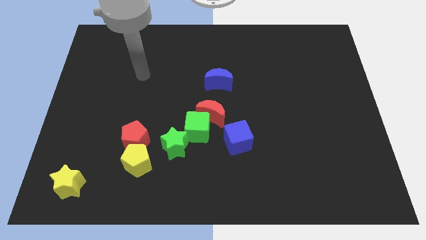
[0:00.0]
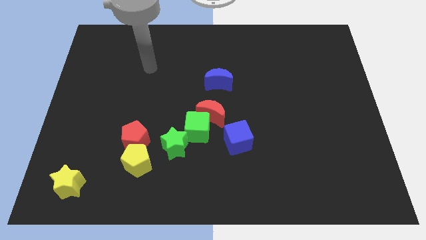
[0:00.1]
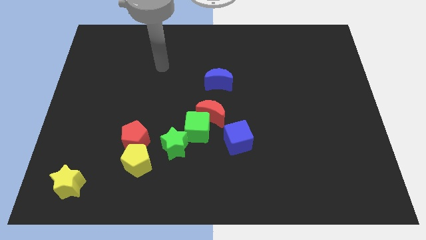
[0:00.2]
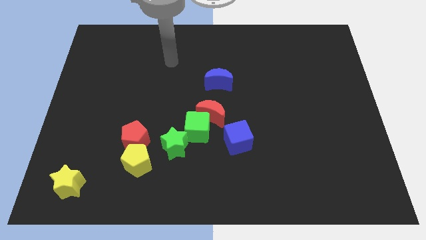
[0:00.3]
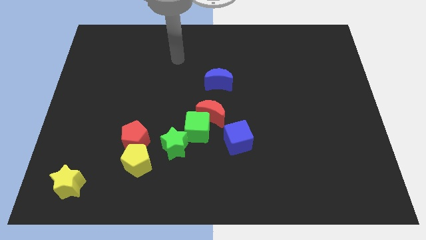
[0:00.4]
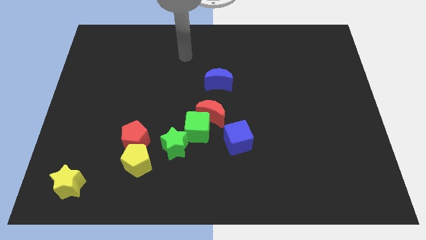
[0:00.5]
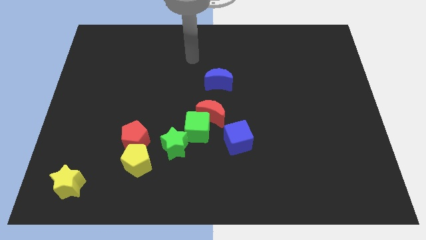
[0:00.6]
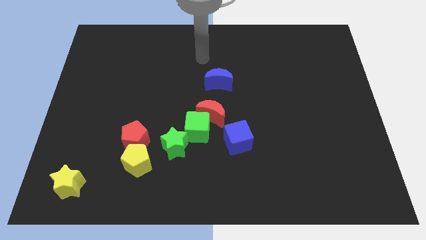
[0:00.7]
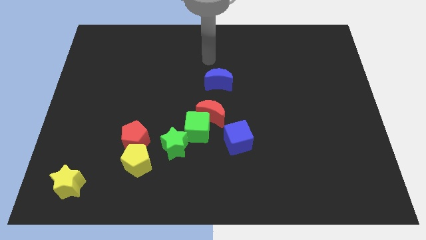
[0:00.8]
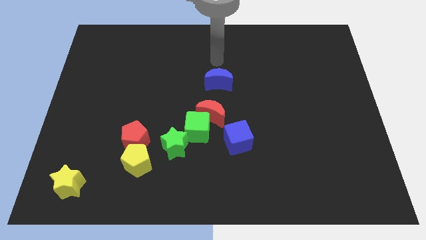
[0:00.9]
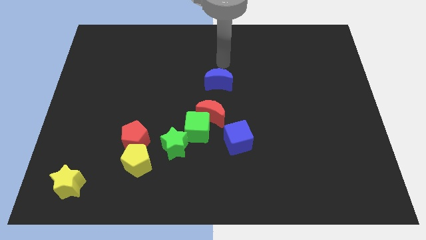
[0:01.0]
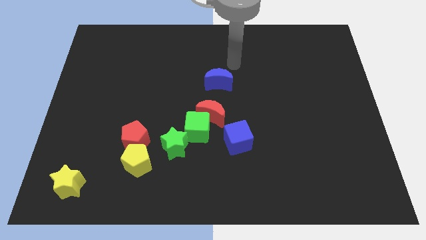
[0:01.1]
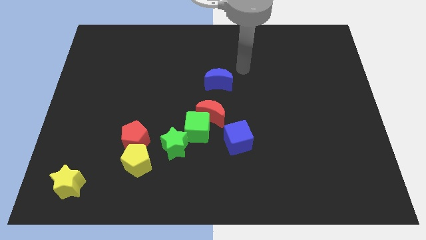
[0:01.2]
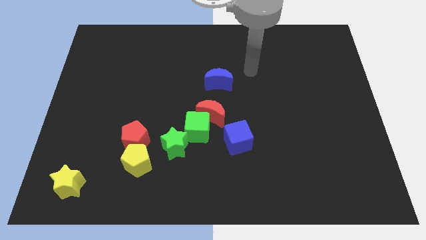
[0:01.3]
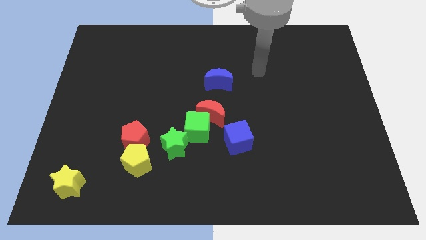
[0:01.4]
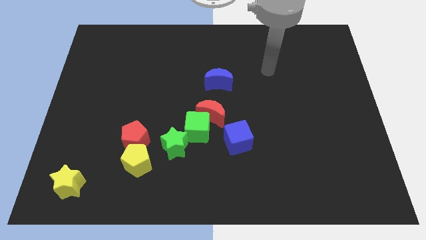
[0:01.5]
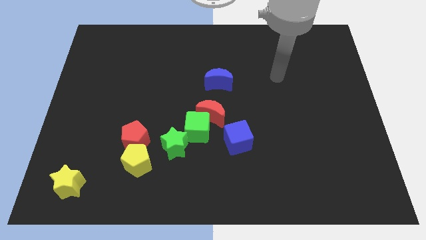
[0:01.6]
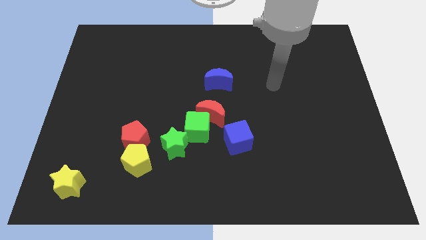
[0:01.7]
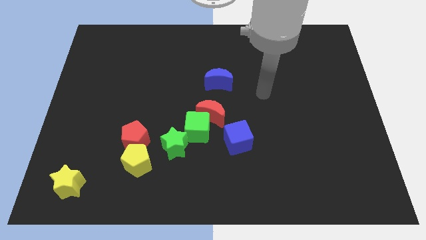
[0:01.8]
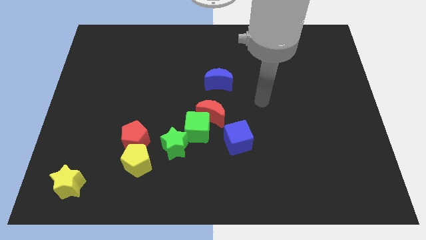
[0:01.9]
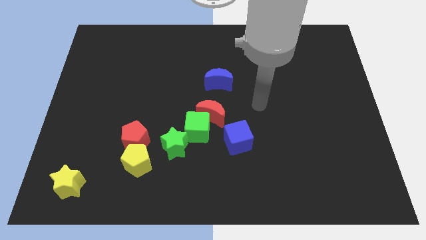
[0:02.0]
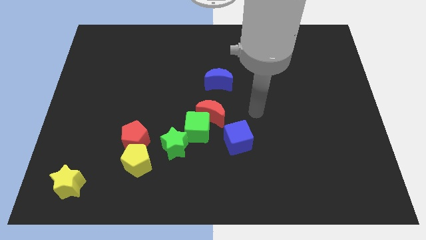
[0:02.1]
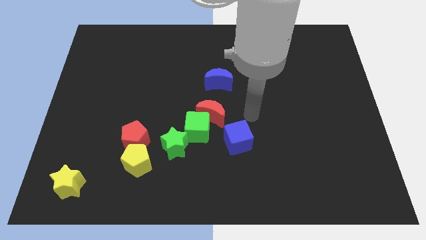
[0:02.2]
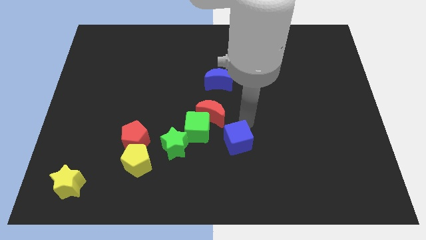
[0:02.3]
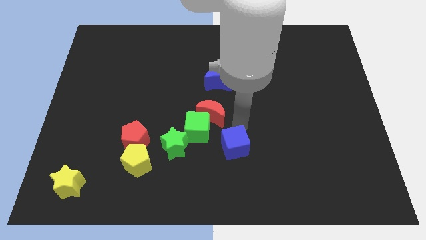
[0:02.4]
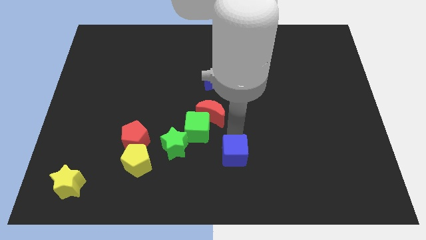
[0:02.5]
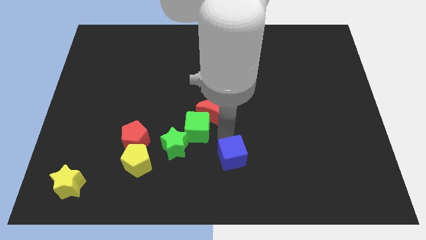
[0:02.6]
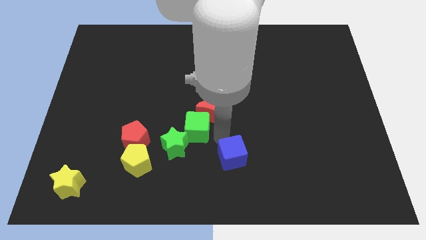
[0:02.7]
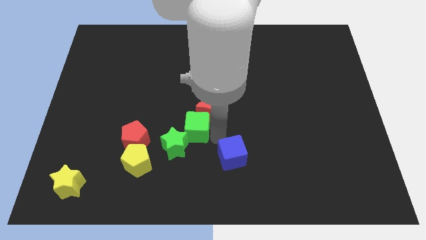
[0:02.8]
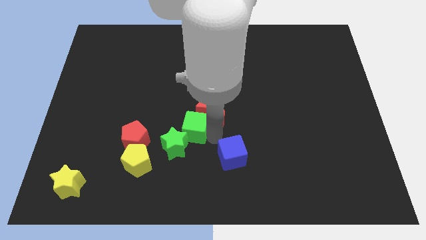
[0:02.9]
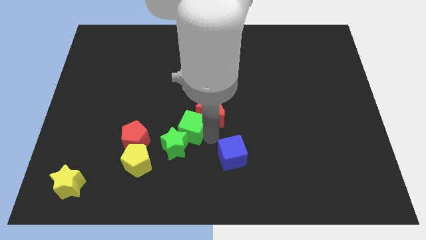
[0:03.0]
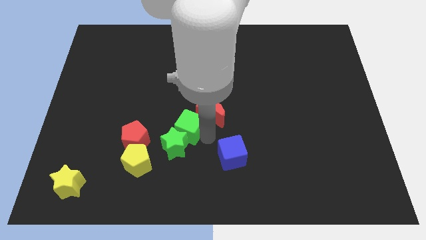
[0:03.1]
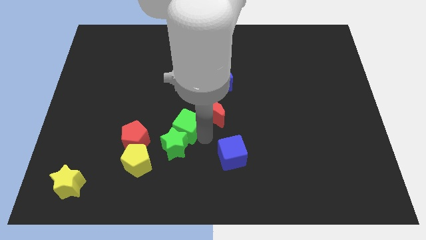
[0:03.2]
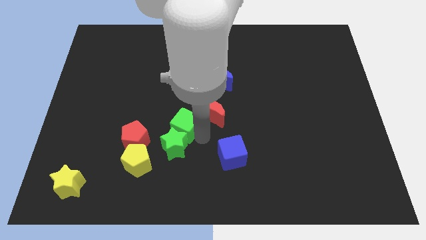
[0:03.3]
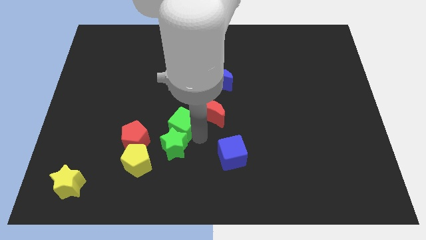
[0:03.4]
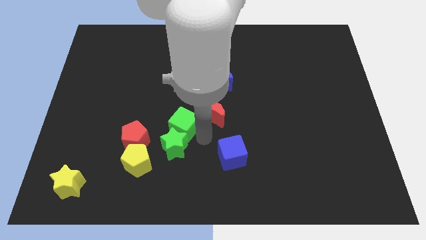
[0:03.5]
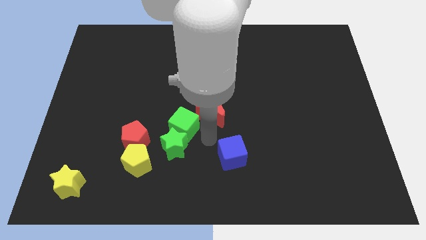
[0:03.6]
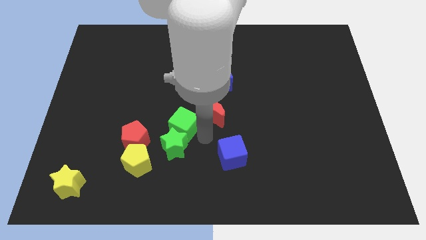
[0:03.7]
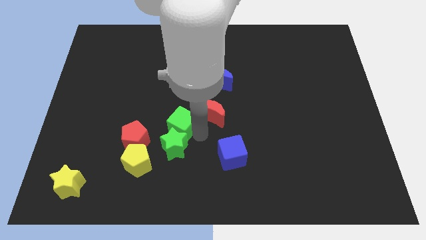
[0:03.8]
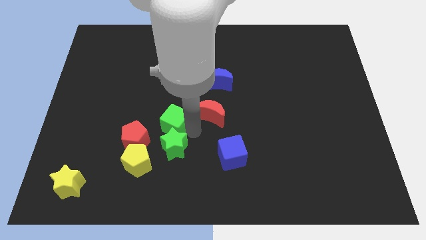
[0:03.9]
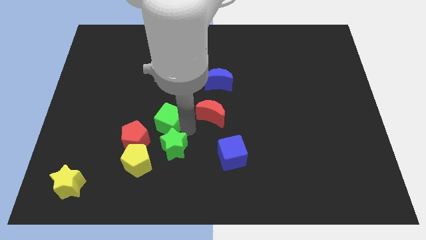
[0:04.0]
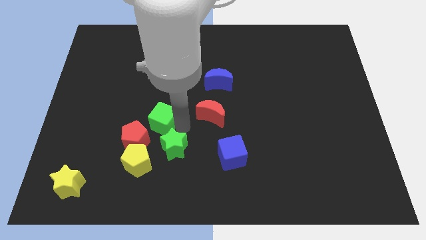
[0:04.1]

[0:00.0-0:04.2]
separate the green cube from the red moon, green star, and blue cube

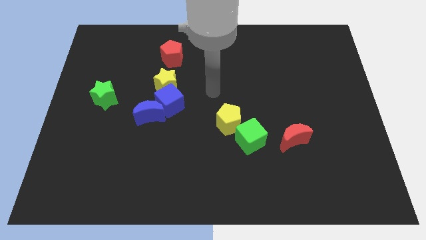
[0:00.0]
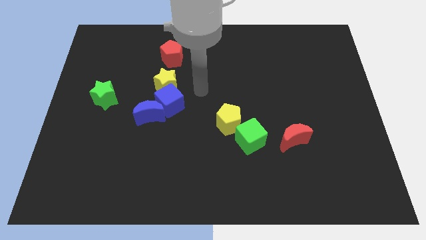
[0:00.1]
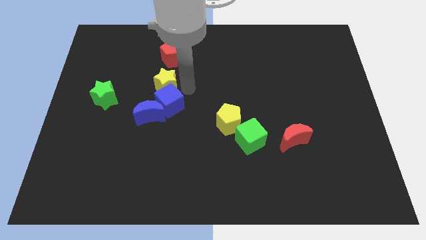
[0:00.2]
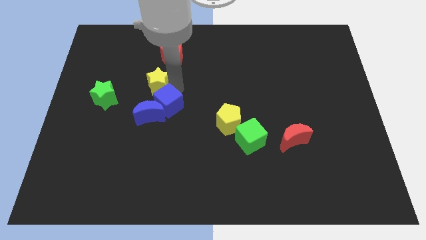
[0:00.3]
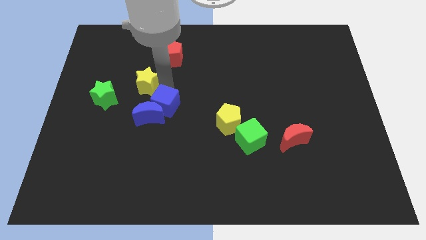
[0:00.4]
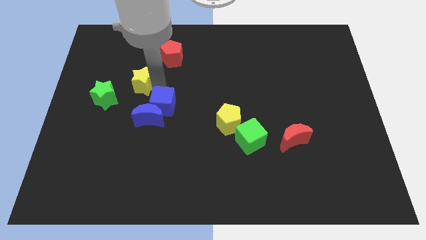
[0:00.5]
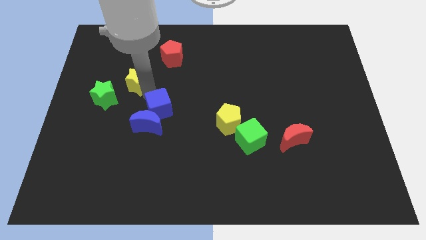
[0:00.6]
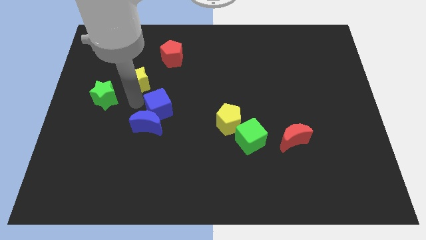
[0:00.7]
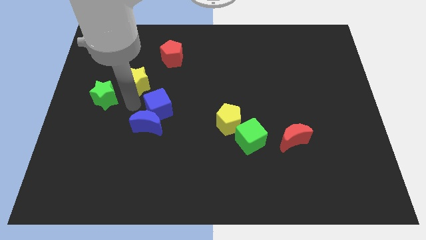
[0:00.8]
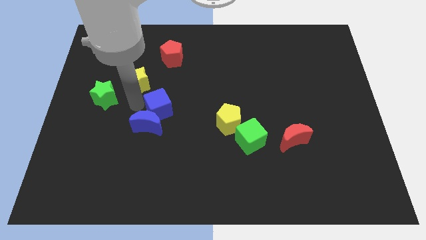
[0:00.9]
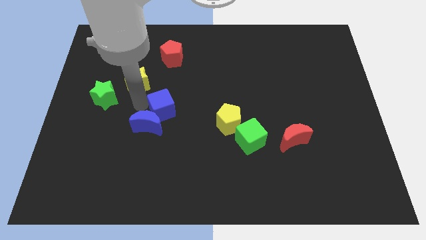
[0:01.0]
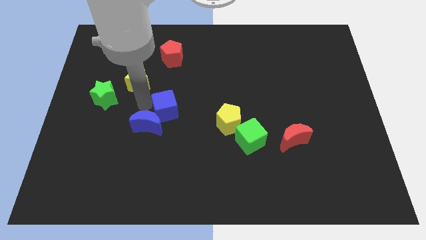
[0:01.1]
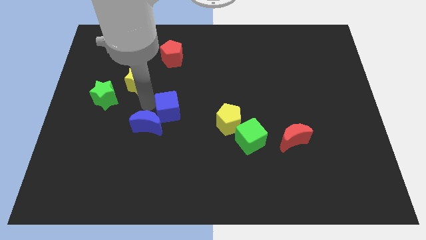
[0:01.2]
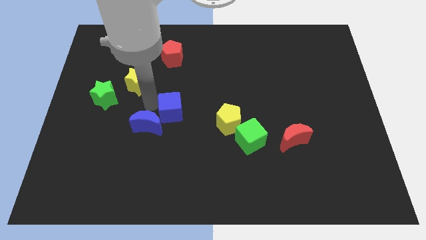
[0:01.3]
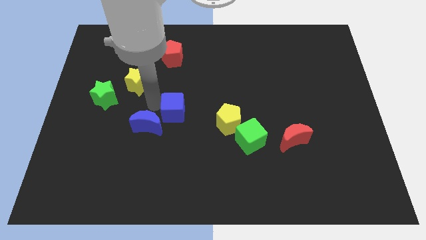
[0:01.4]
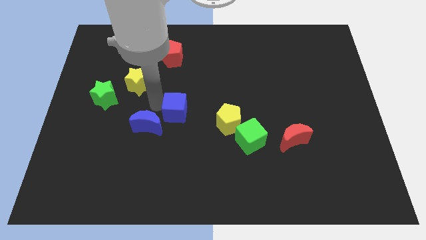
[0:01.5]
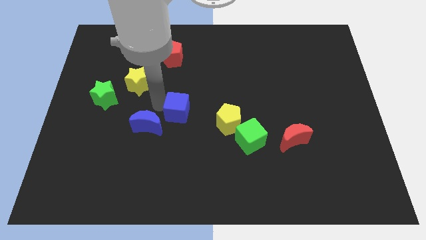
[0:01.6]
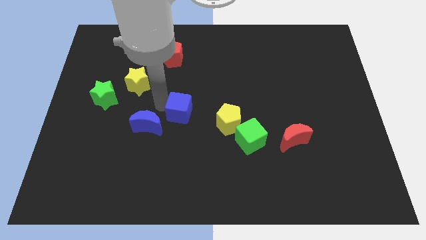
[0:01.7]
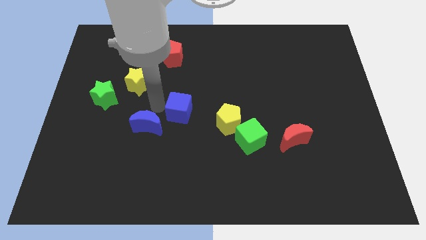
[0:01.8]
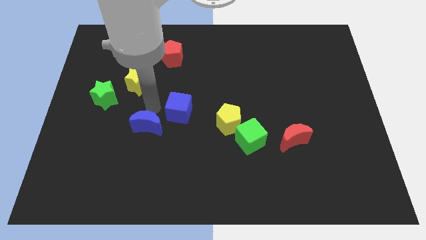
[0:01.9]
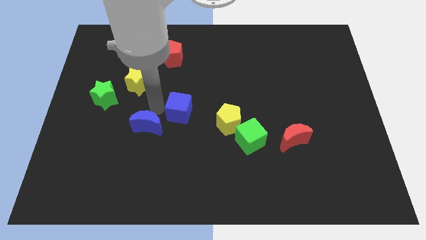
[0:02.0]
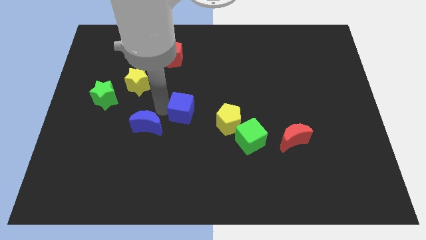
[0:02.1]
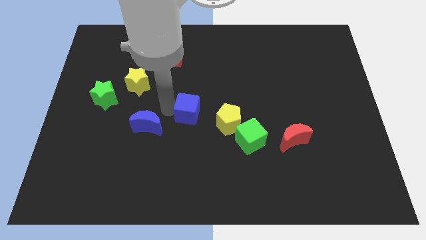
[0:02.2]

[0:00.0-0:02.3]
separate the blue cube from the blue moon and yellow star

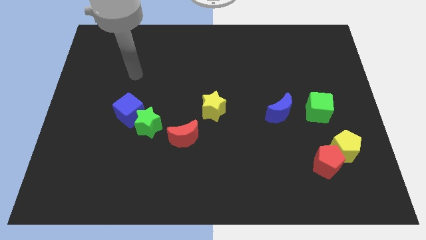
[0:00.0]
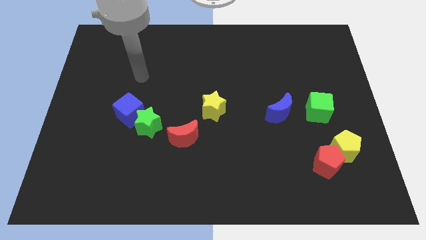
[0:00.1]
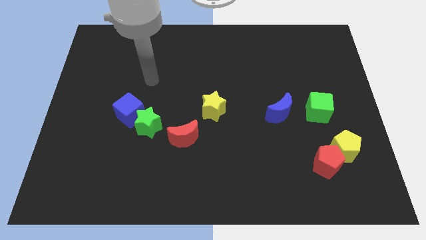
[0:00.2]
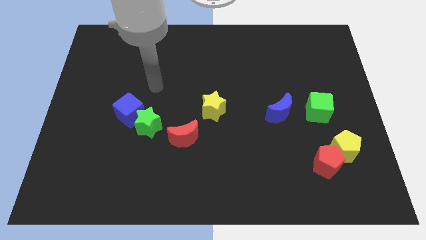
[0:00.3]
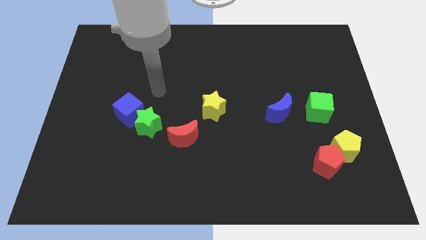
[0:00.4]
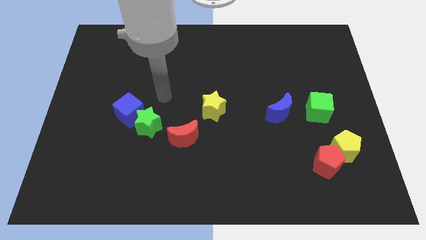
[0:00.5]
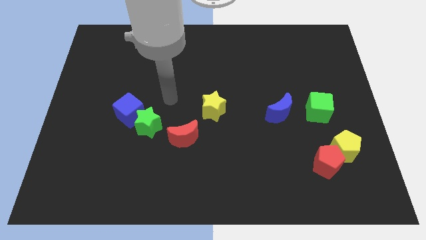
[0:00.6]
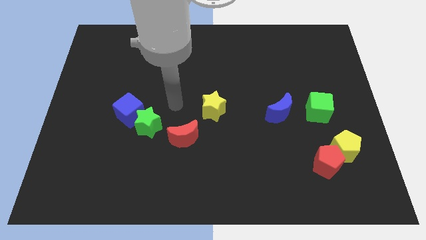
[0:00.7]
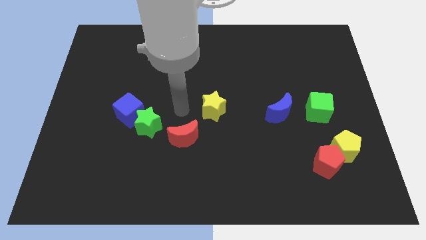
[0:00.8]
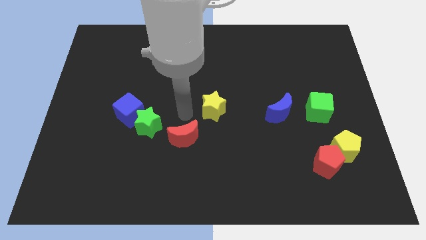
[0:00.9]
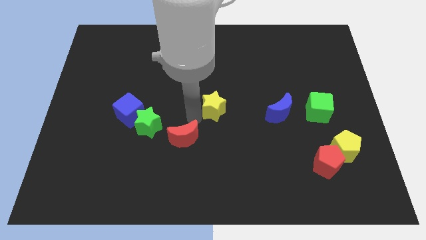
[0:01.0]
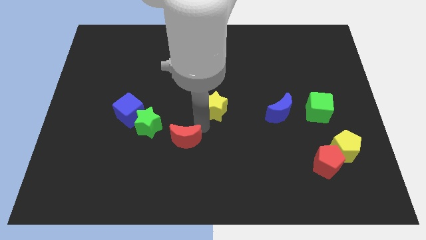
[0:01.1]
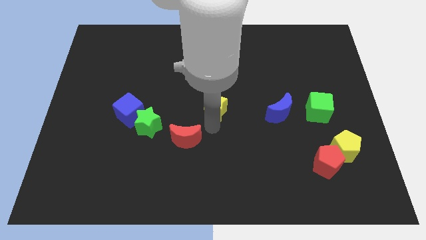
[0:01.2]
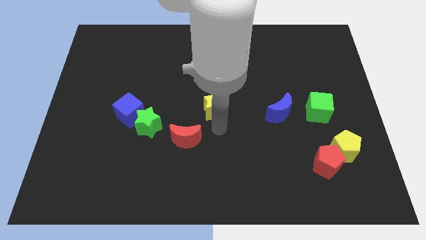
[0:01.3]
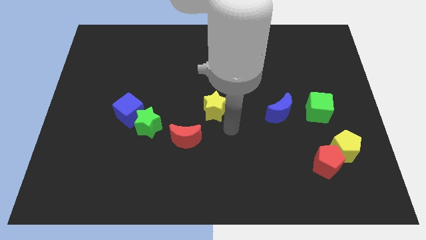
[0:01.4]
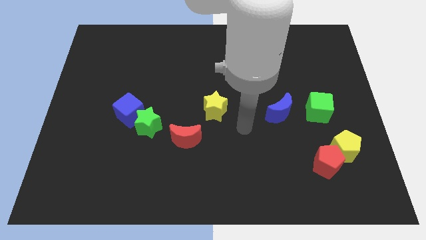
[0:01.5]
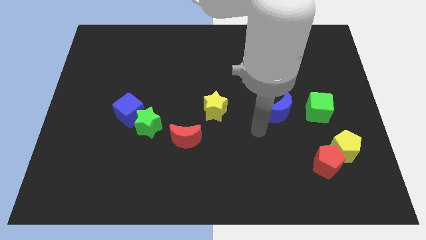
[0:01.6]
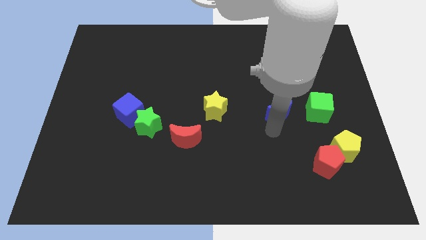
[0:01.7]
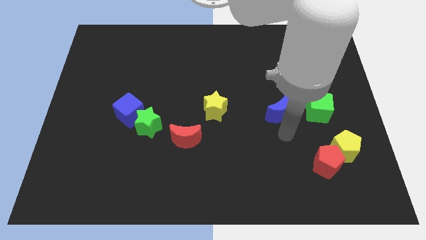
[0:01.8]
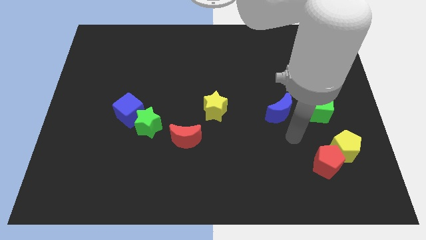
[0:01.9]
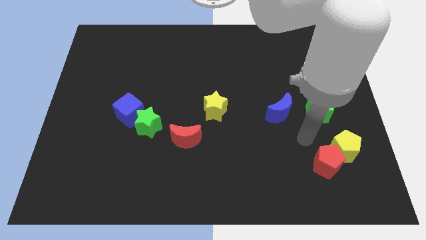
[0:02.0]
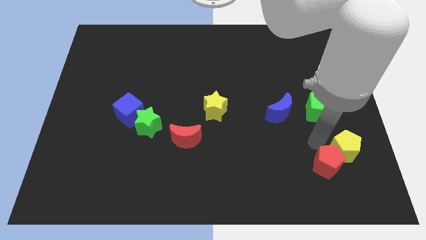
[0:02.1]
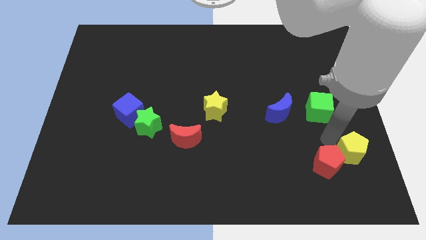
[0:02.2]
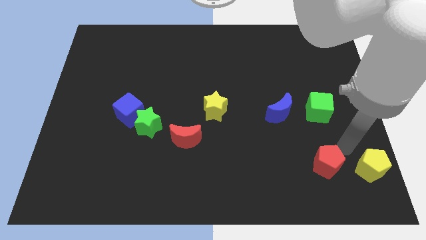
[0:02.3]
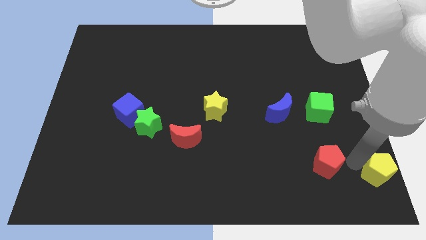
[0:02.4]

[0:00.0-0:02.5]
separate the red pentagon from the yellow pentagon

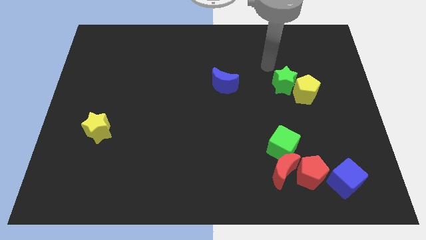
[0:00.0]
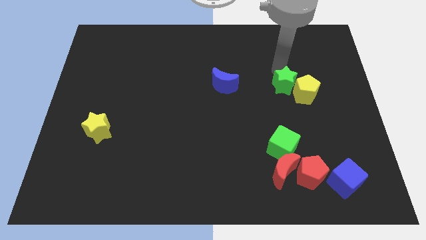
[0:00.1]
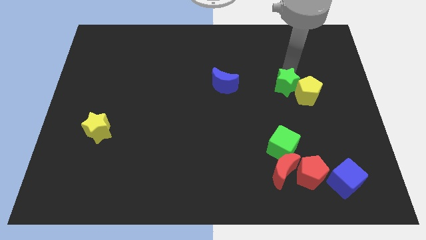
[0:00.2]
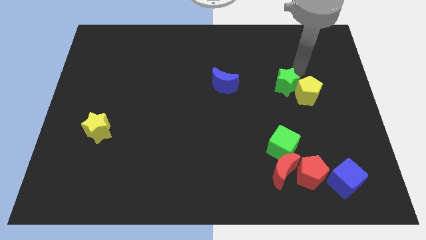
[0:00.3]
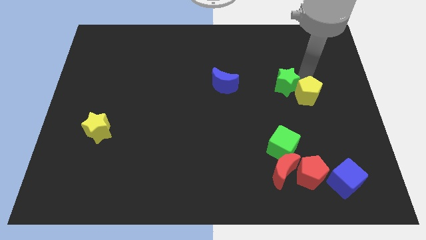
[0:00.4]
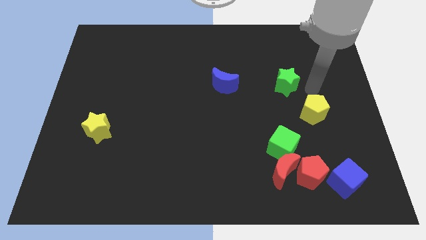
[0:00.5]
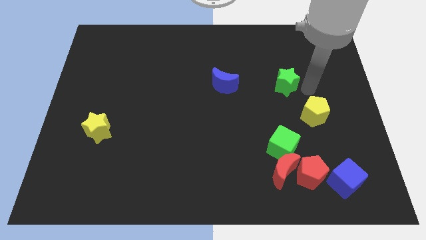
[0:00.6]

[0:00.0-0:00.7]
move the green star away from the yellow pentagon
